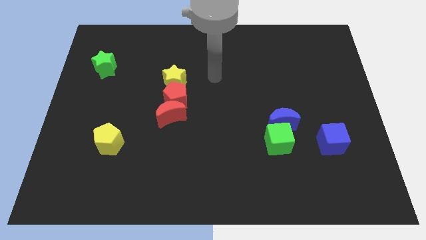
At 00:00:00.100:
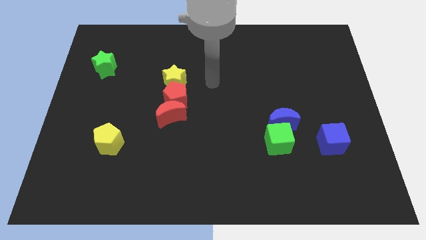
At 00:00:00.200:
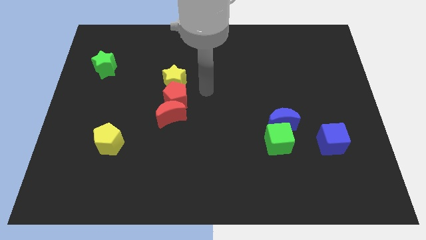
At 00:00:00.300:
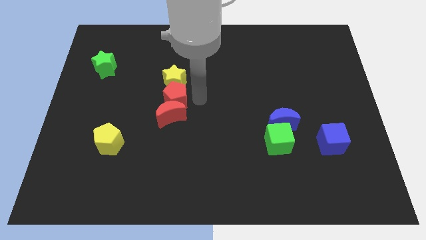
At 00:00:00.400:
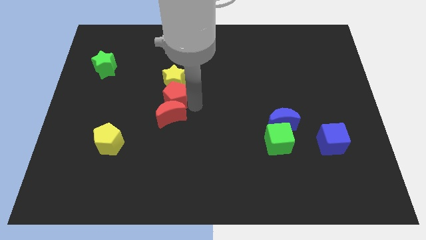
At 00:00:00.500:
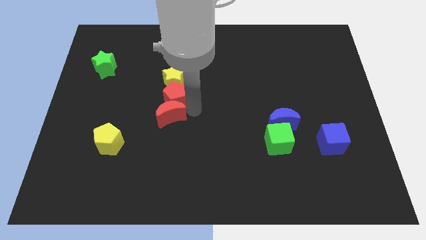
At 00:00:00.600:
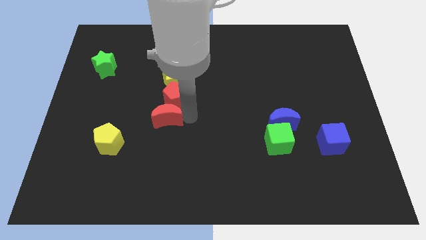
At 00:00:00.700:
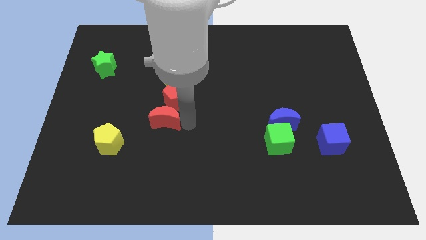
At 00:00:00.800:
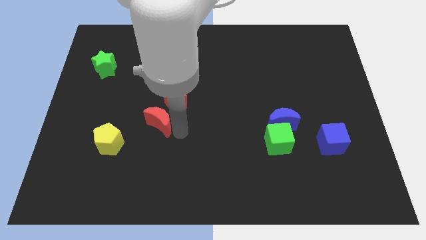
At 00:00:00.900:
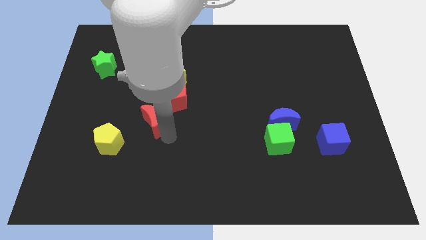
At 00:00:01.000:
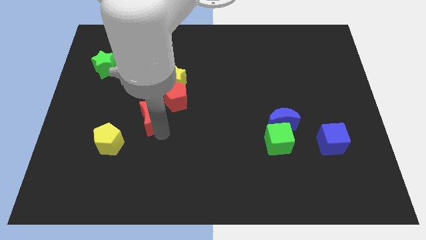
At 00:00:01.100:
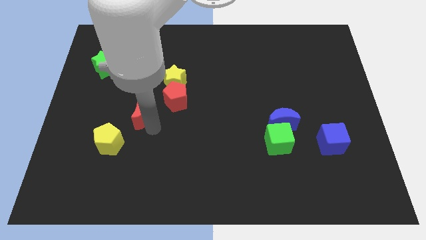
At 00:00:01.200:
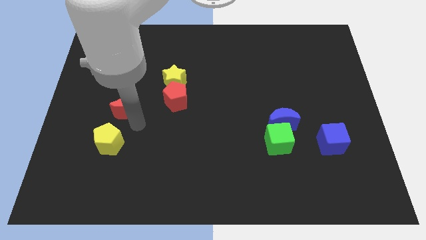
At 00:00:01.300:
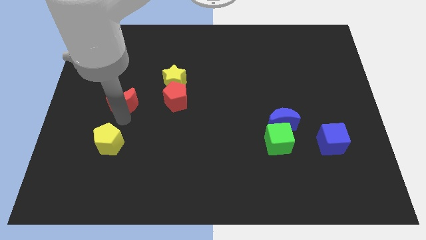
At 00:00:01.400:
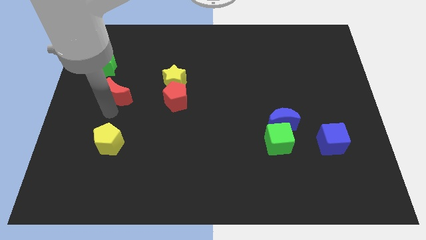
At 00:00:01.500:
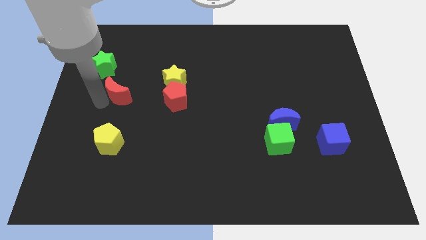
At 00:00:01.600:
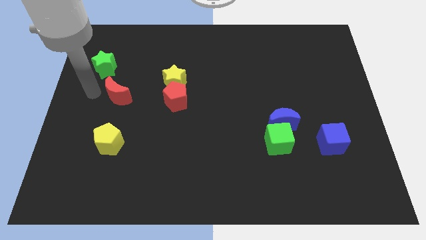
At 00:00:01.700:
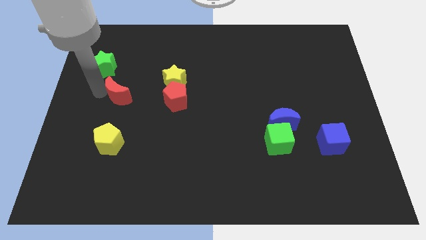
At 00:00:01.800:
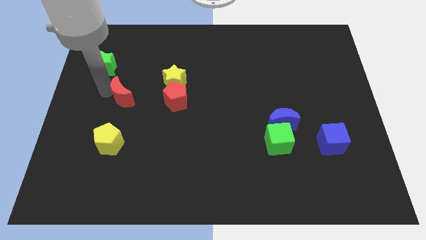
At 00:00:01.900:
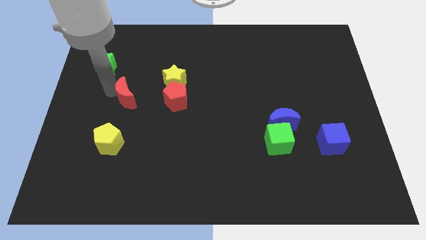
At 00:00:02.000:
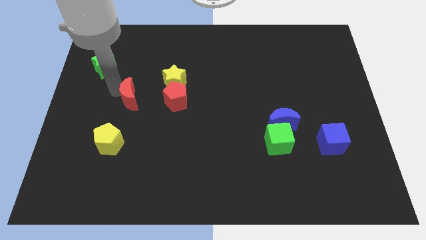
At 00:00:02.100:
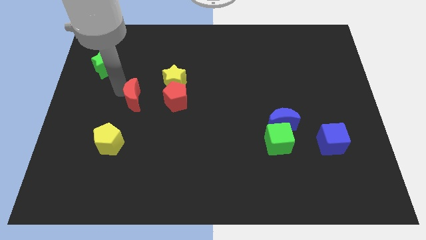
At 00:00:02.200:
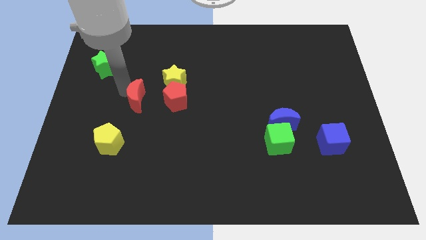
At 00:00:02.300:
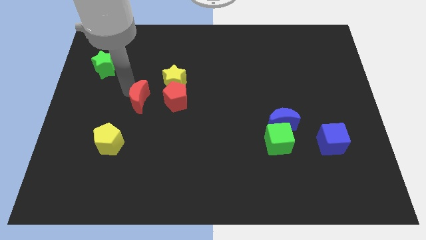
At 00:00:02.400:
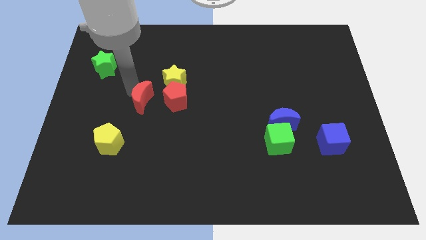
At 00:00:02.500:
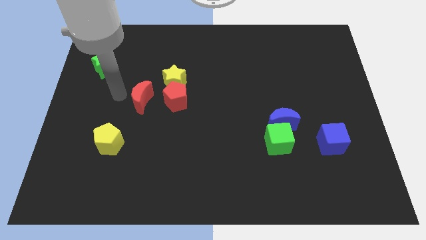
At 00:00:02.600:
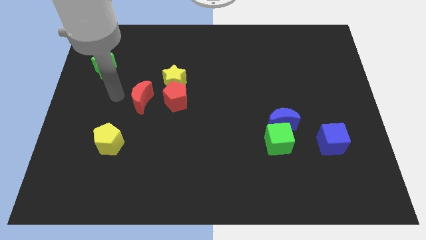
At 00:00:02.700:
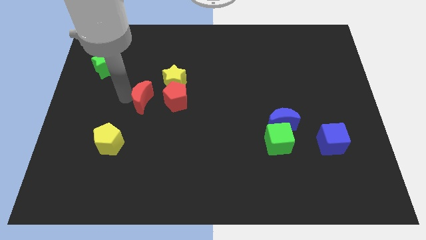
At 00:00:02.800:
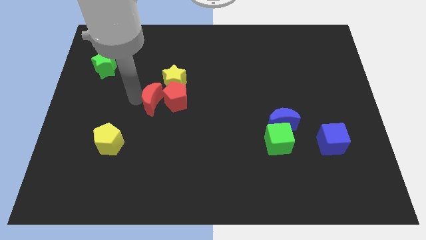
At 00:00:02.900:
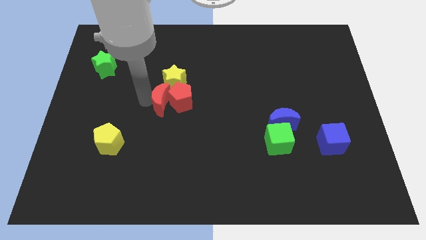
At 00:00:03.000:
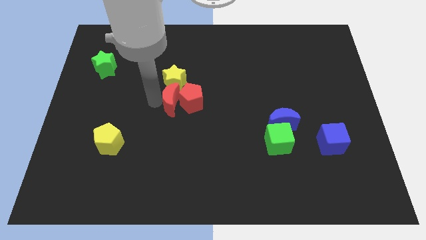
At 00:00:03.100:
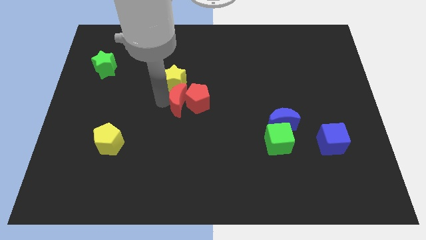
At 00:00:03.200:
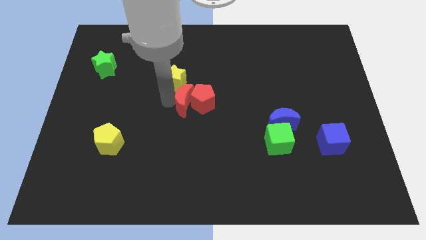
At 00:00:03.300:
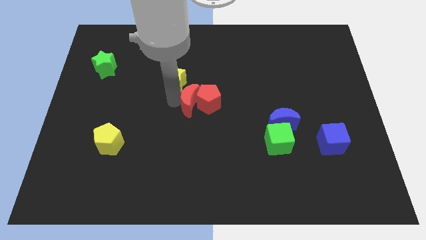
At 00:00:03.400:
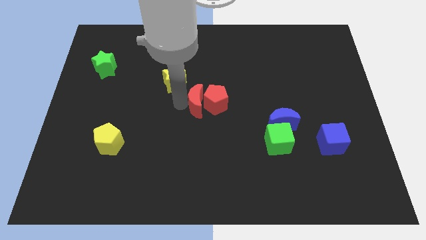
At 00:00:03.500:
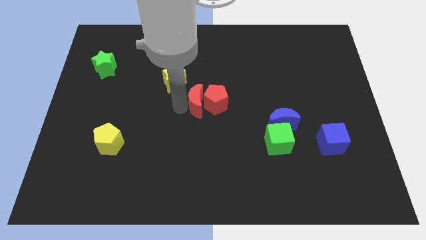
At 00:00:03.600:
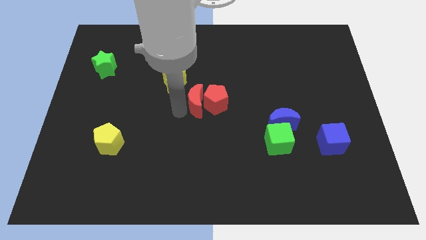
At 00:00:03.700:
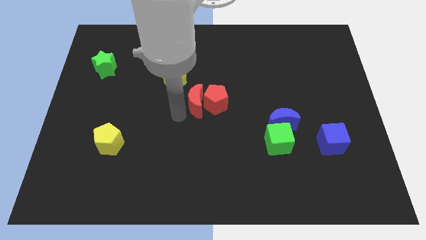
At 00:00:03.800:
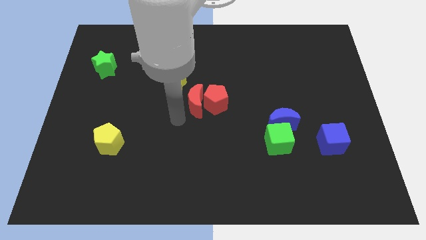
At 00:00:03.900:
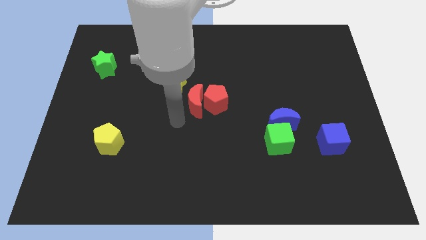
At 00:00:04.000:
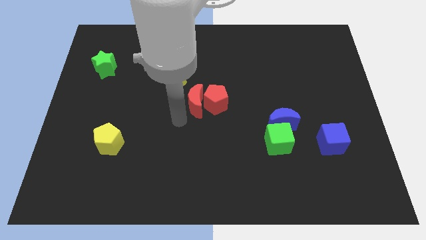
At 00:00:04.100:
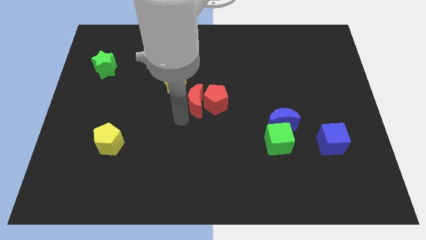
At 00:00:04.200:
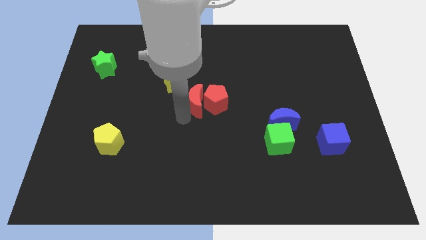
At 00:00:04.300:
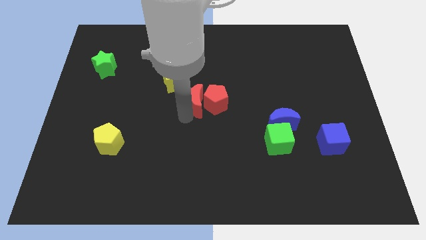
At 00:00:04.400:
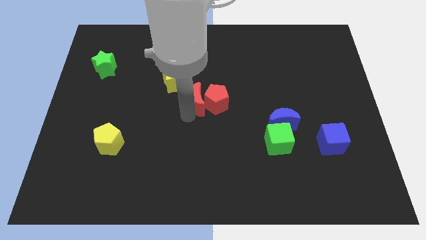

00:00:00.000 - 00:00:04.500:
slightly slide the red moon up and right diagonally

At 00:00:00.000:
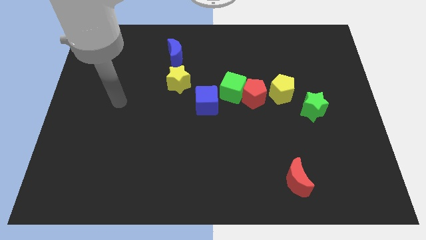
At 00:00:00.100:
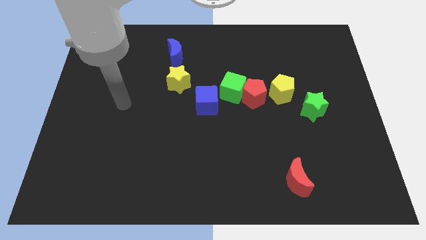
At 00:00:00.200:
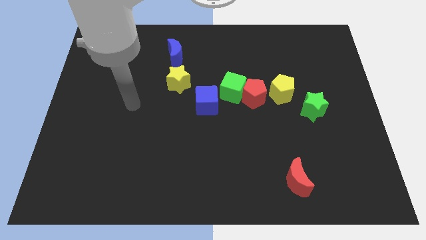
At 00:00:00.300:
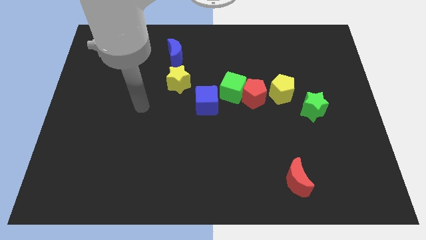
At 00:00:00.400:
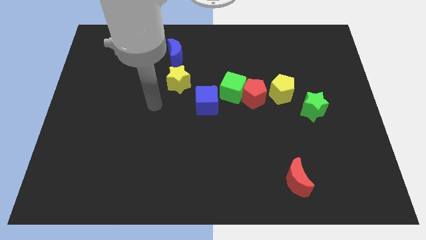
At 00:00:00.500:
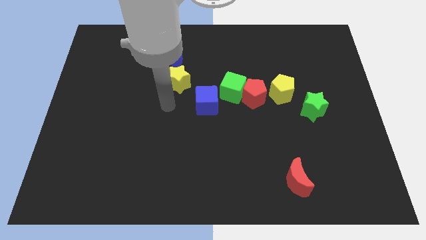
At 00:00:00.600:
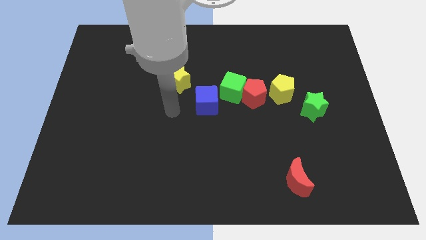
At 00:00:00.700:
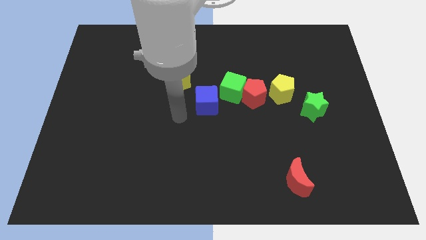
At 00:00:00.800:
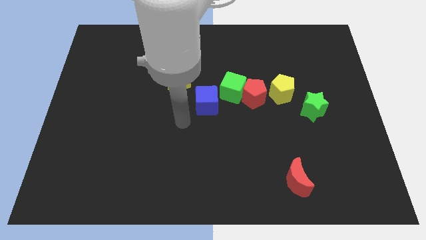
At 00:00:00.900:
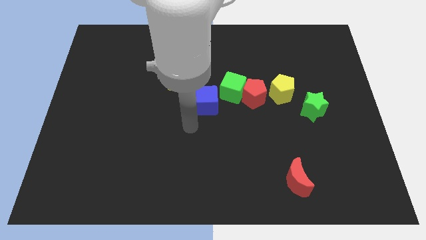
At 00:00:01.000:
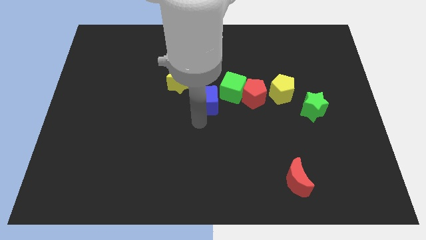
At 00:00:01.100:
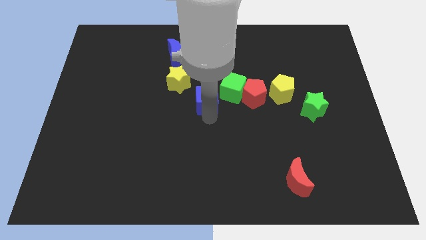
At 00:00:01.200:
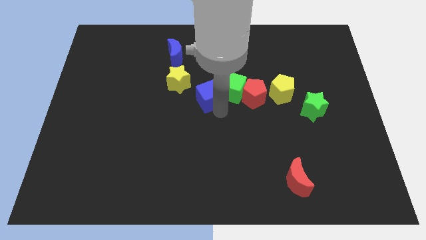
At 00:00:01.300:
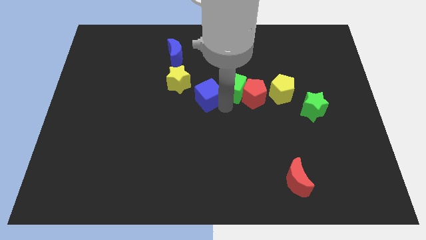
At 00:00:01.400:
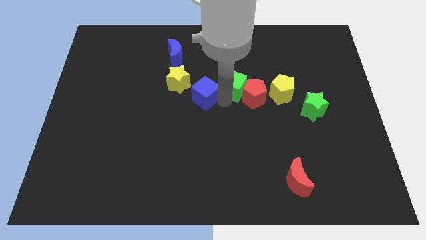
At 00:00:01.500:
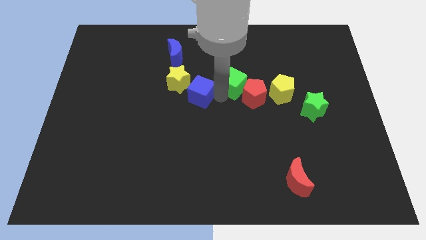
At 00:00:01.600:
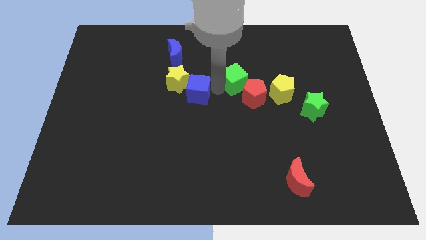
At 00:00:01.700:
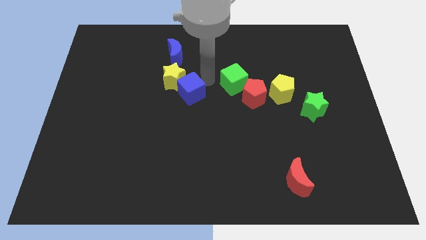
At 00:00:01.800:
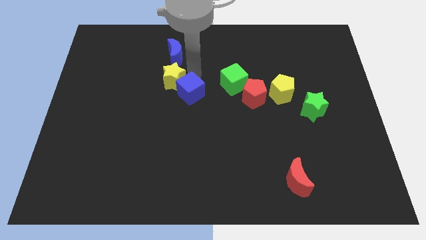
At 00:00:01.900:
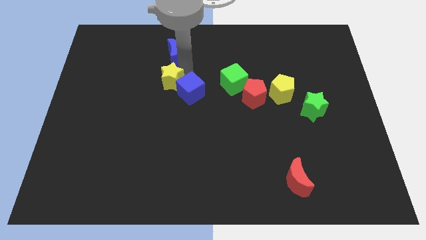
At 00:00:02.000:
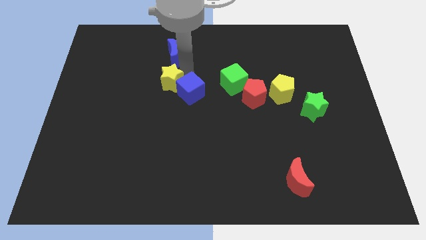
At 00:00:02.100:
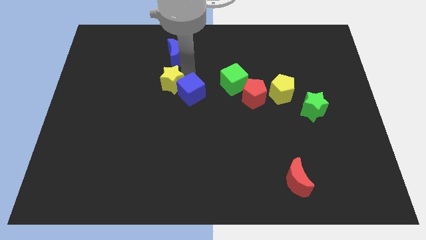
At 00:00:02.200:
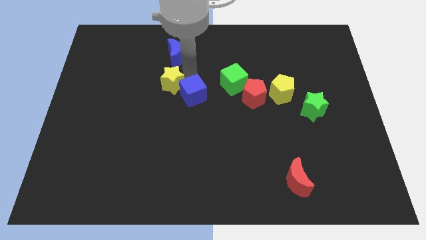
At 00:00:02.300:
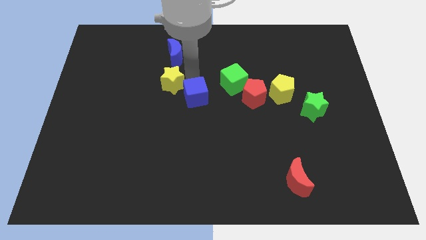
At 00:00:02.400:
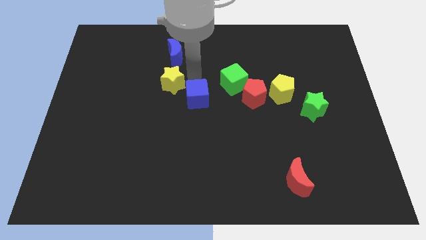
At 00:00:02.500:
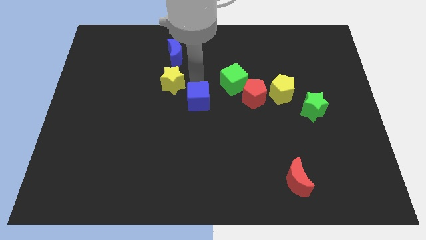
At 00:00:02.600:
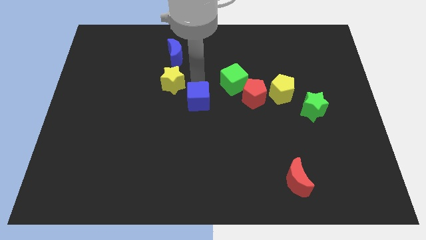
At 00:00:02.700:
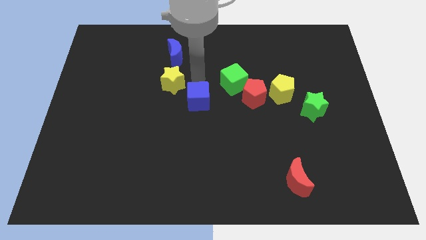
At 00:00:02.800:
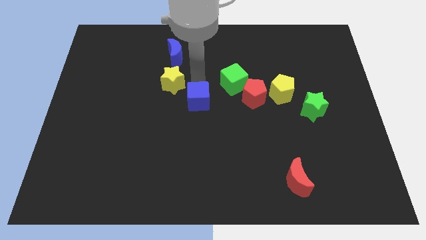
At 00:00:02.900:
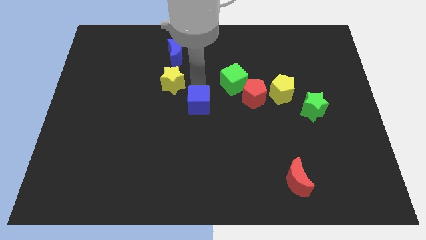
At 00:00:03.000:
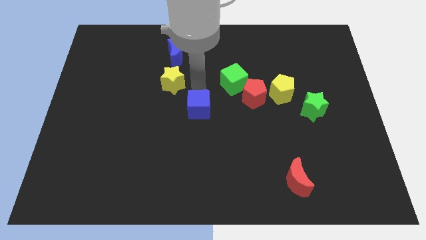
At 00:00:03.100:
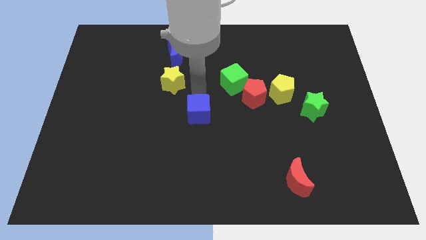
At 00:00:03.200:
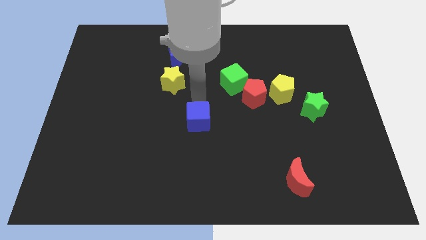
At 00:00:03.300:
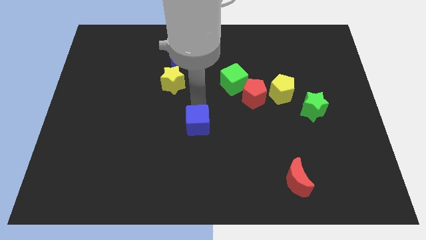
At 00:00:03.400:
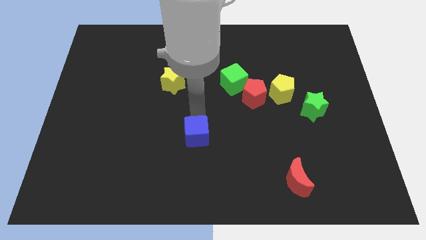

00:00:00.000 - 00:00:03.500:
slightly slide the blue cube downwards
